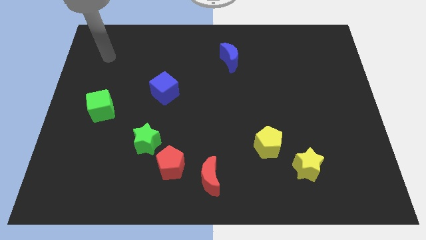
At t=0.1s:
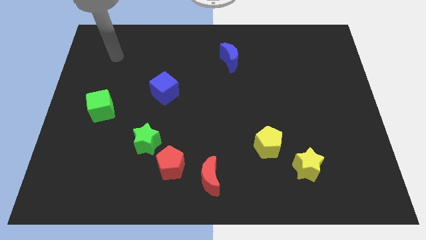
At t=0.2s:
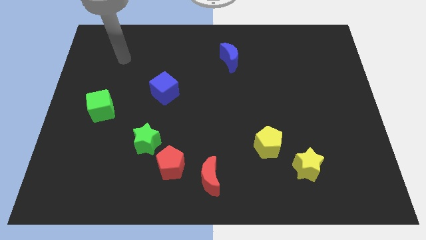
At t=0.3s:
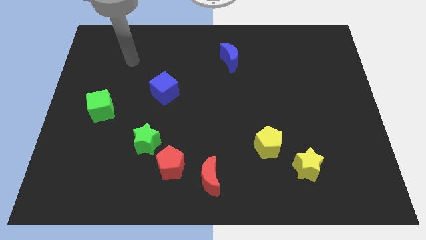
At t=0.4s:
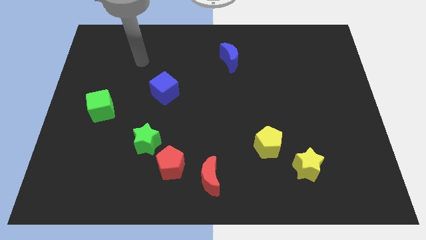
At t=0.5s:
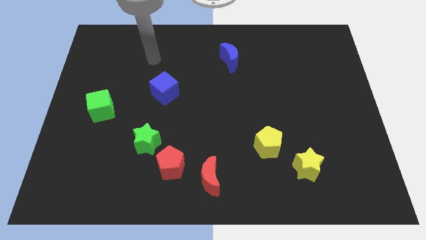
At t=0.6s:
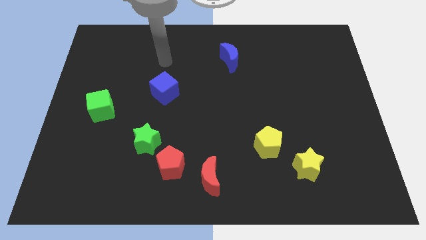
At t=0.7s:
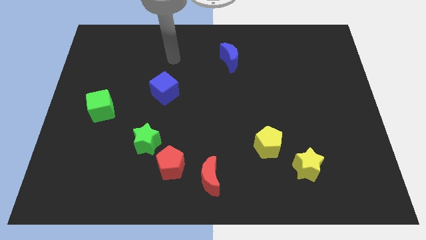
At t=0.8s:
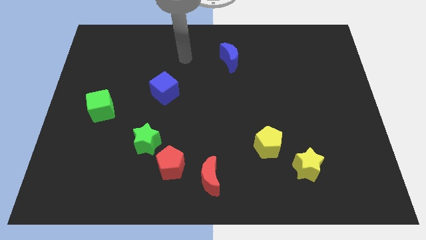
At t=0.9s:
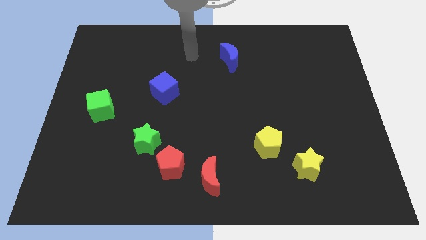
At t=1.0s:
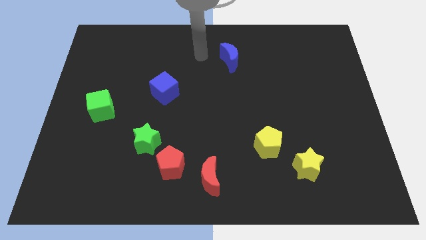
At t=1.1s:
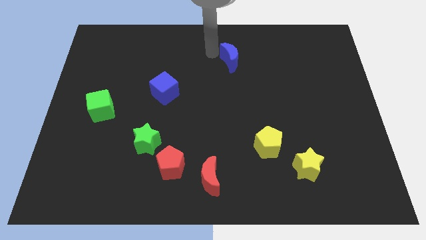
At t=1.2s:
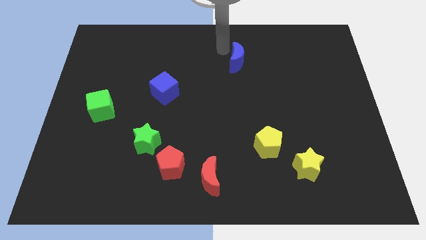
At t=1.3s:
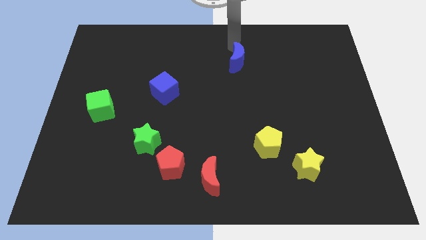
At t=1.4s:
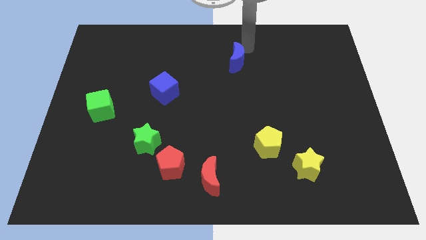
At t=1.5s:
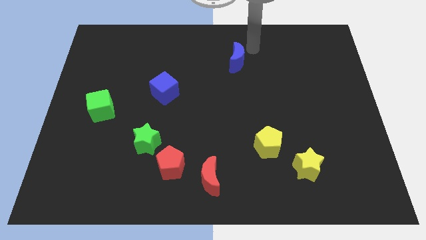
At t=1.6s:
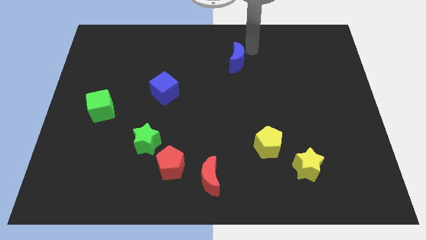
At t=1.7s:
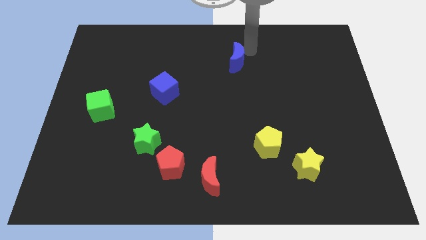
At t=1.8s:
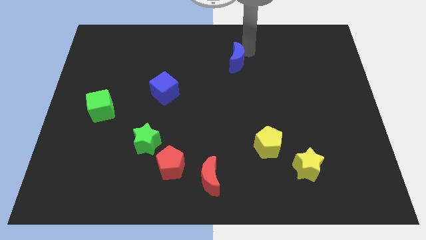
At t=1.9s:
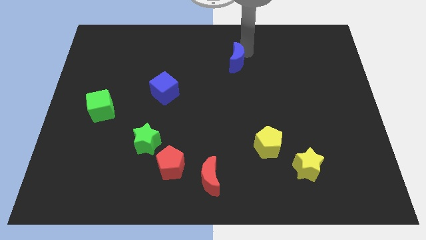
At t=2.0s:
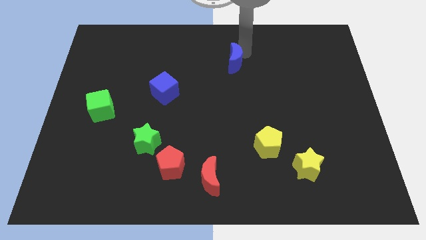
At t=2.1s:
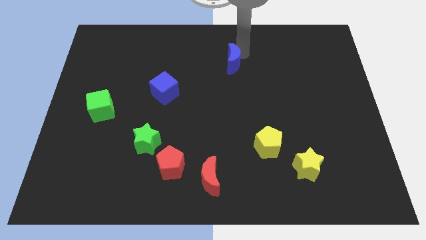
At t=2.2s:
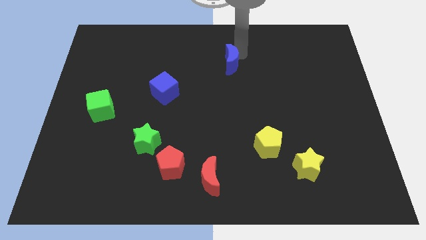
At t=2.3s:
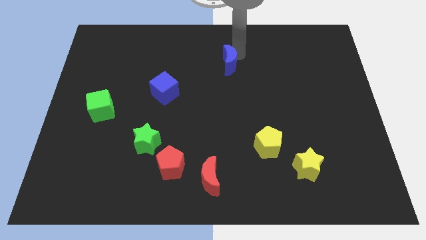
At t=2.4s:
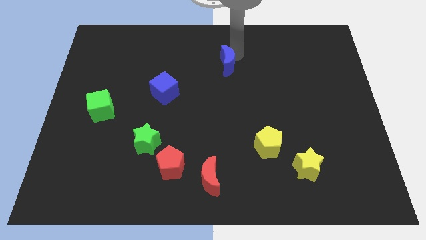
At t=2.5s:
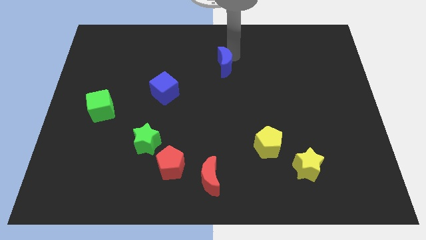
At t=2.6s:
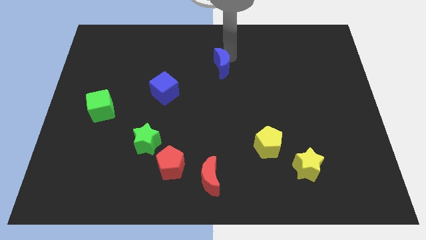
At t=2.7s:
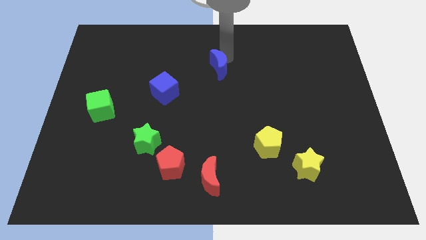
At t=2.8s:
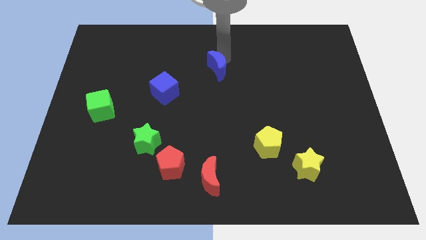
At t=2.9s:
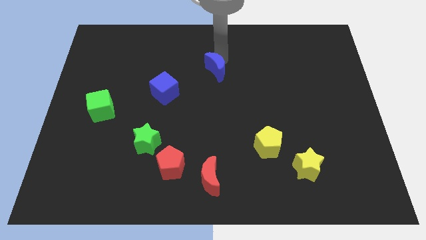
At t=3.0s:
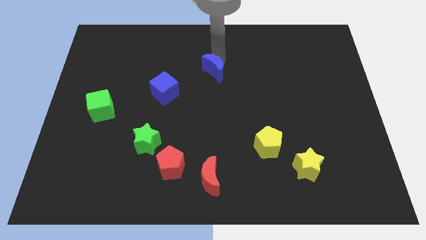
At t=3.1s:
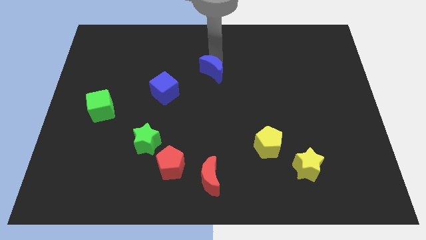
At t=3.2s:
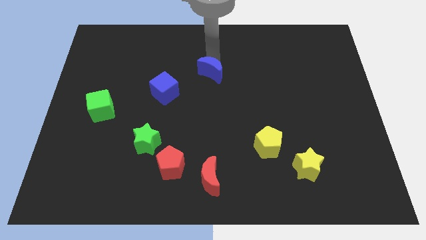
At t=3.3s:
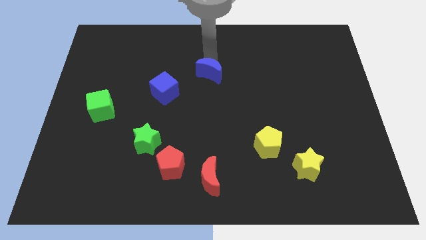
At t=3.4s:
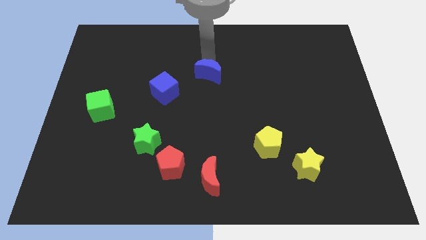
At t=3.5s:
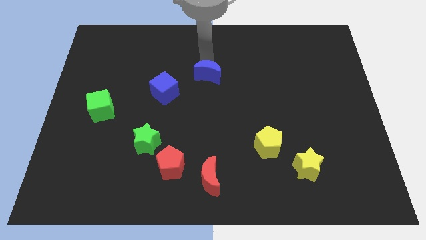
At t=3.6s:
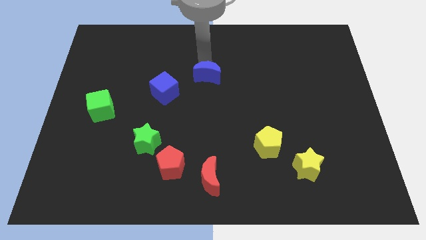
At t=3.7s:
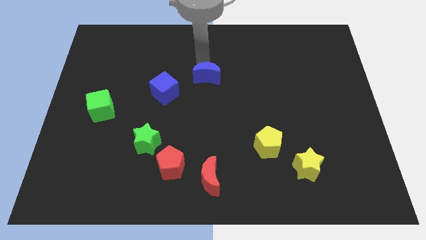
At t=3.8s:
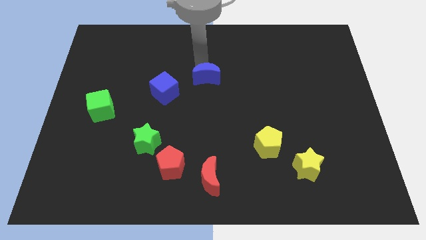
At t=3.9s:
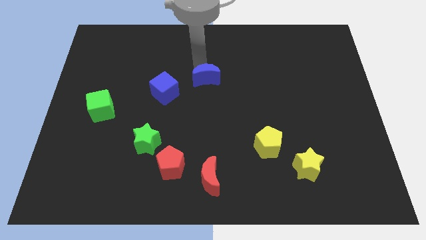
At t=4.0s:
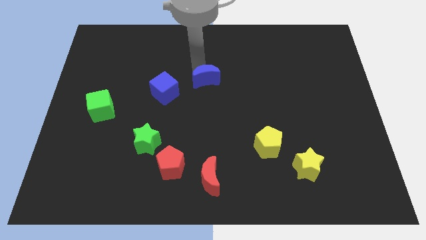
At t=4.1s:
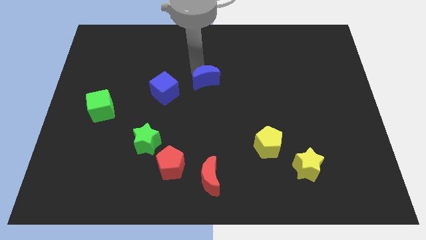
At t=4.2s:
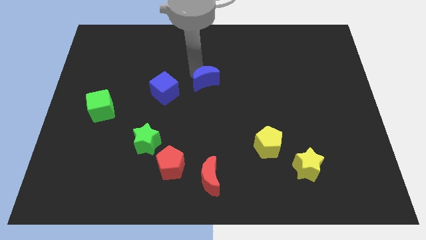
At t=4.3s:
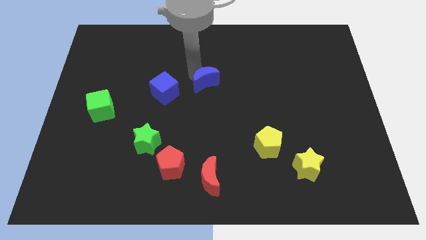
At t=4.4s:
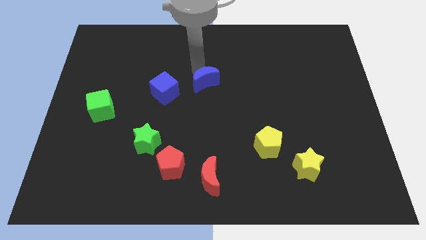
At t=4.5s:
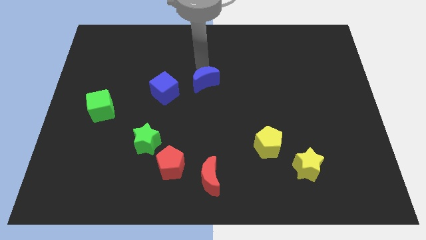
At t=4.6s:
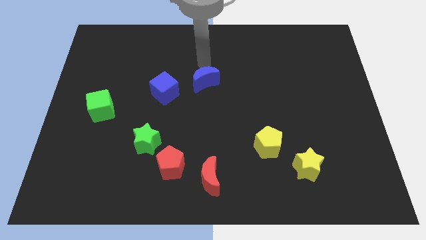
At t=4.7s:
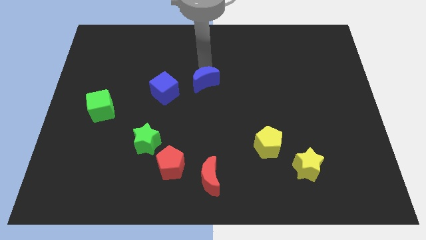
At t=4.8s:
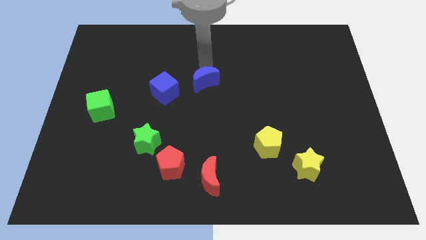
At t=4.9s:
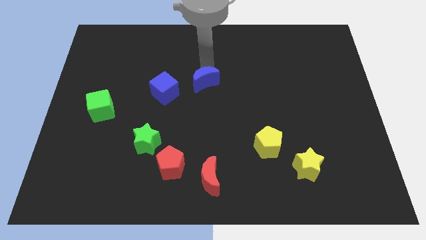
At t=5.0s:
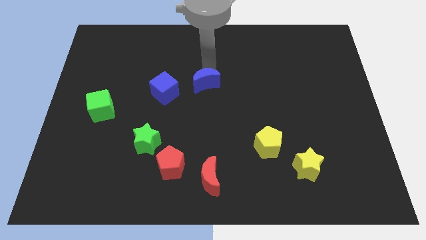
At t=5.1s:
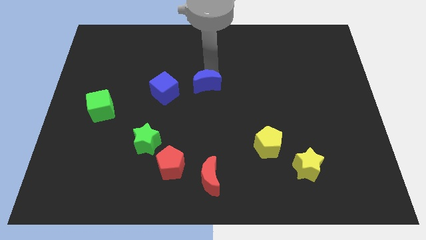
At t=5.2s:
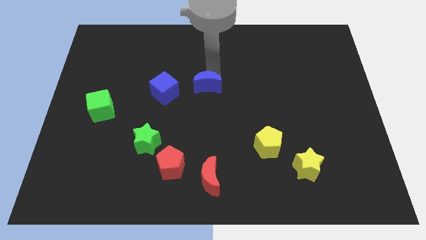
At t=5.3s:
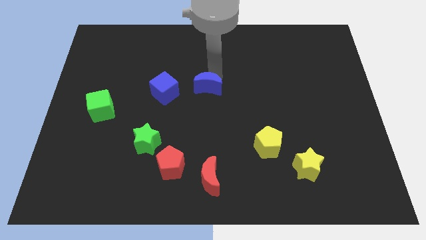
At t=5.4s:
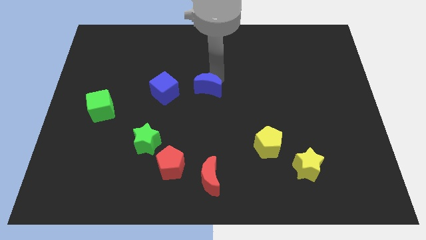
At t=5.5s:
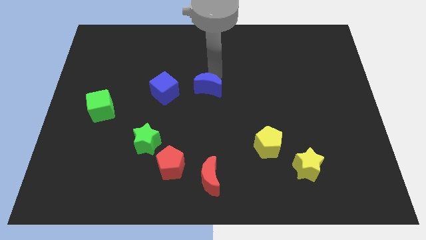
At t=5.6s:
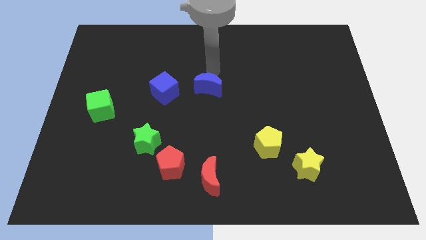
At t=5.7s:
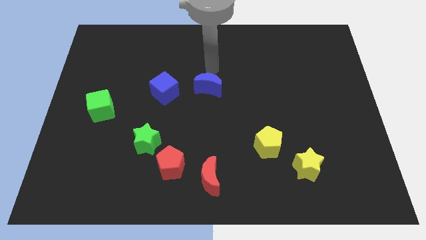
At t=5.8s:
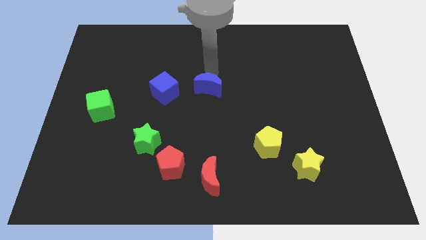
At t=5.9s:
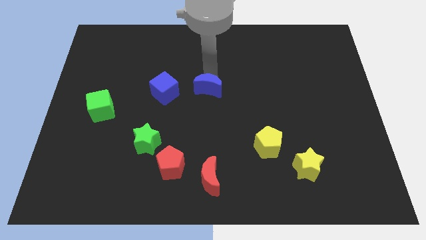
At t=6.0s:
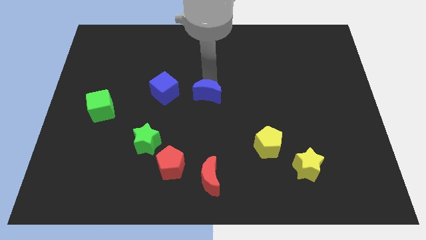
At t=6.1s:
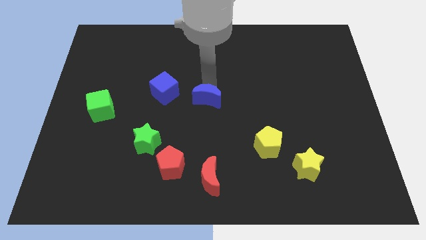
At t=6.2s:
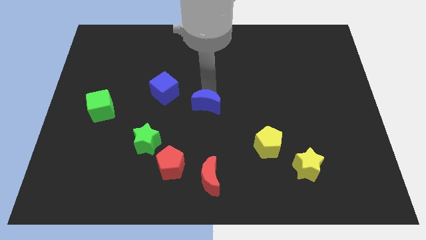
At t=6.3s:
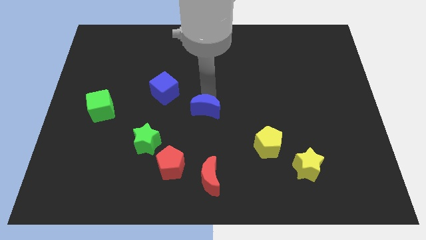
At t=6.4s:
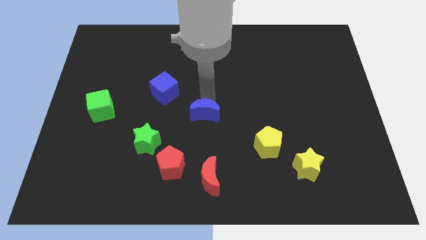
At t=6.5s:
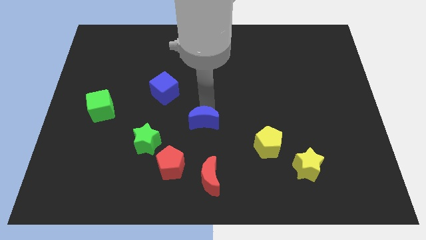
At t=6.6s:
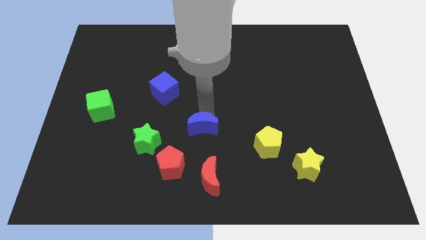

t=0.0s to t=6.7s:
put the blue moon to the right of the green star
